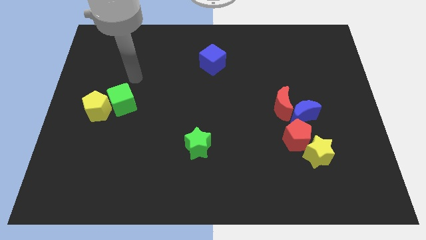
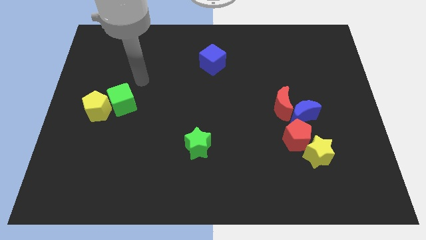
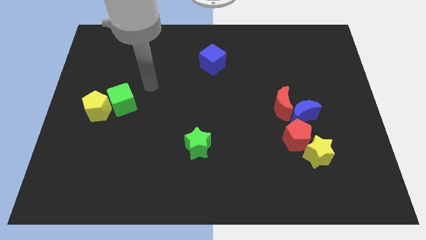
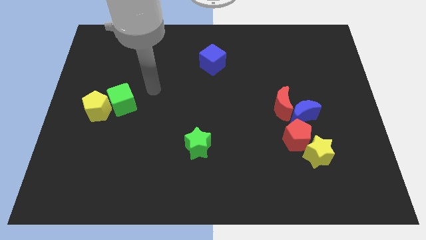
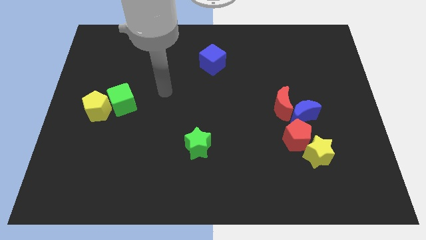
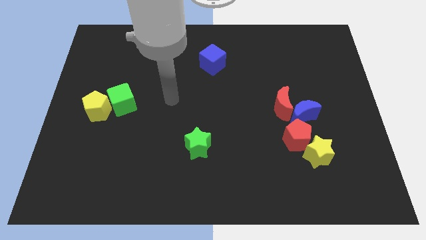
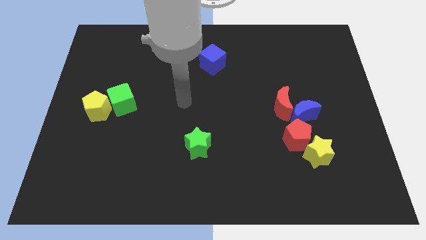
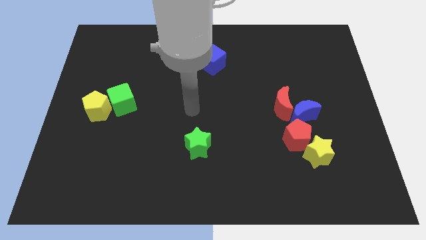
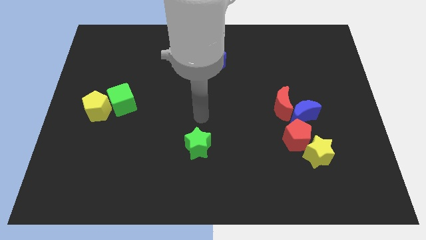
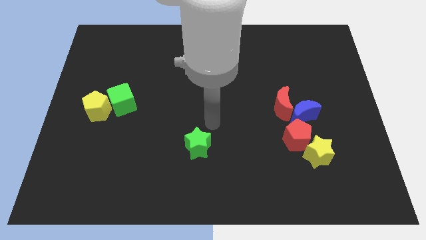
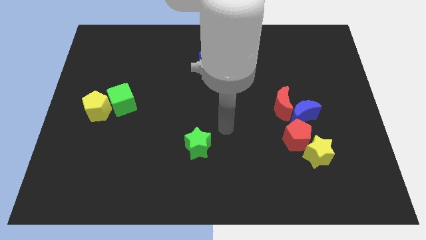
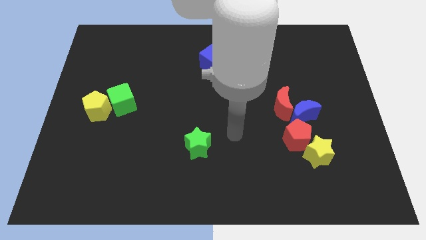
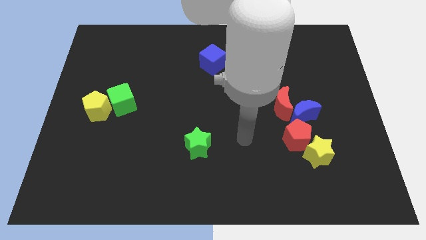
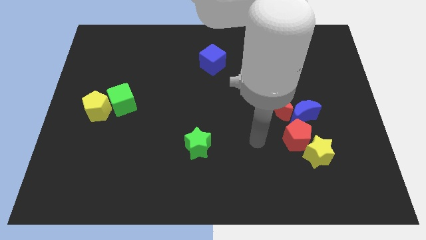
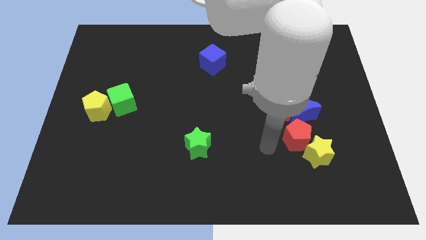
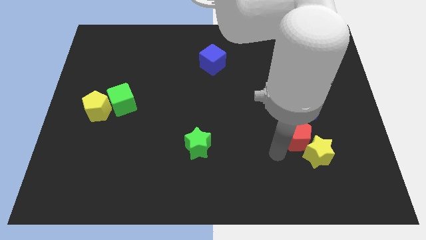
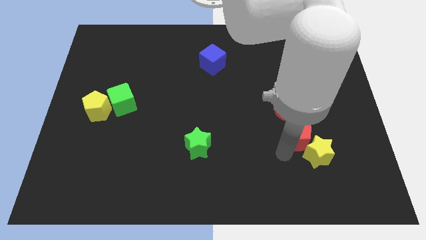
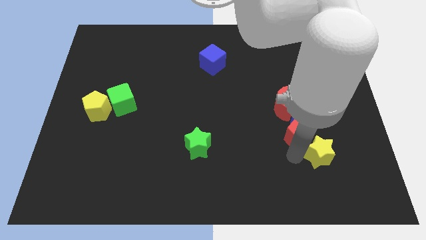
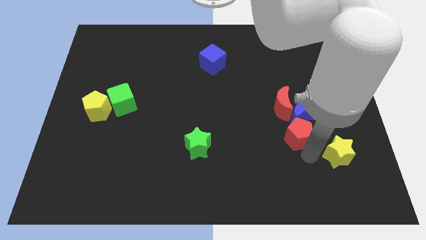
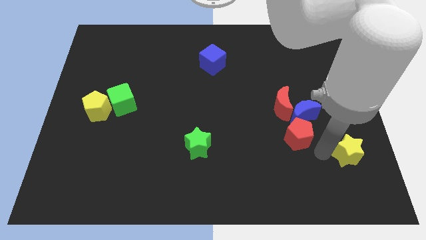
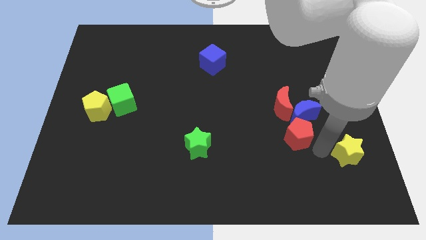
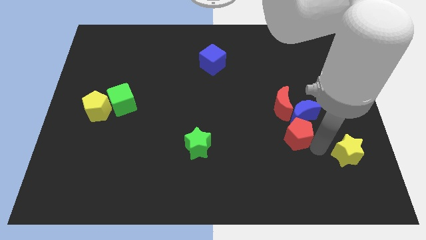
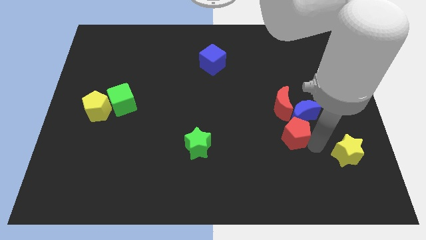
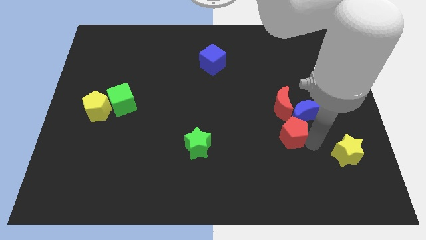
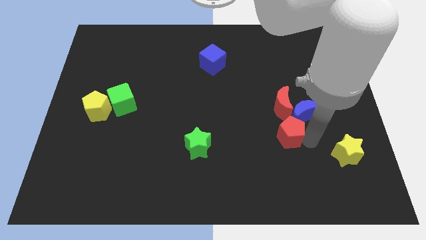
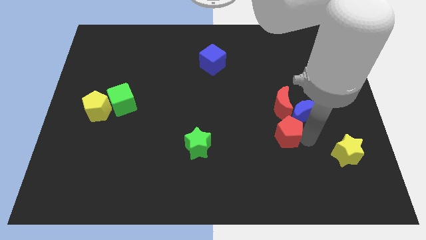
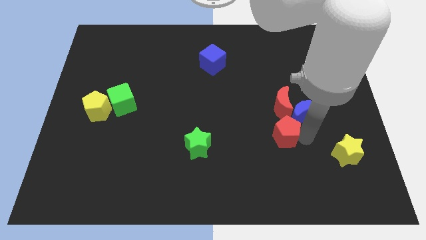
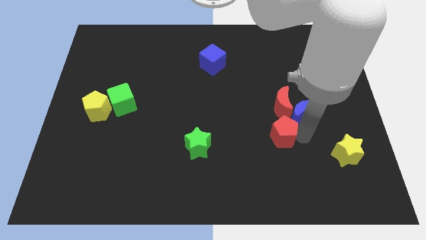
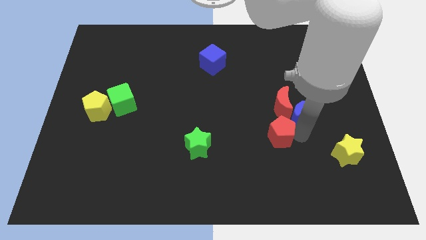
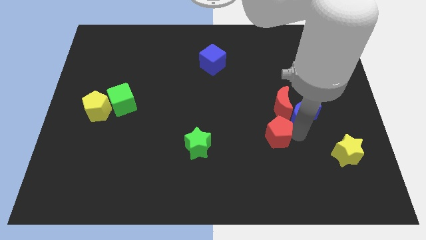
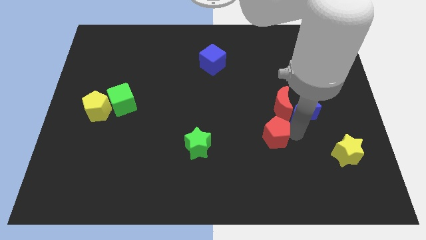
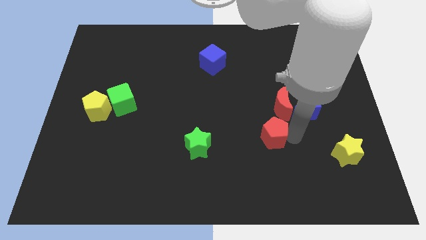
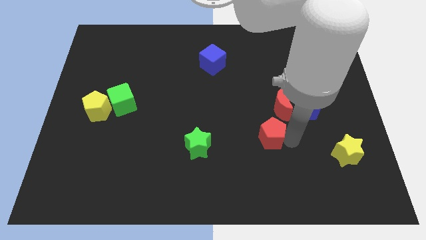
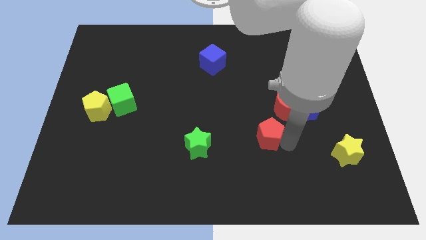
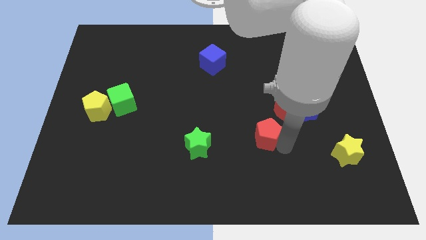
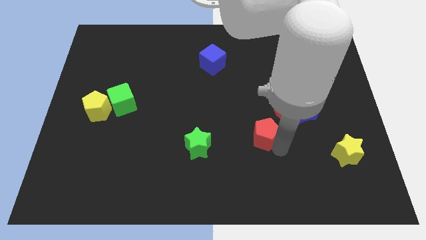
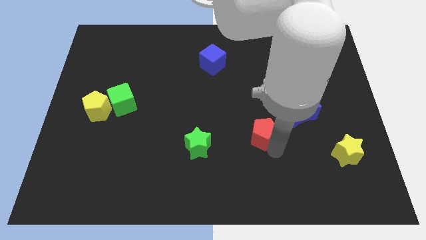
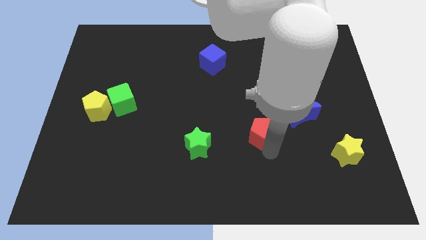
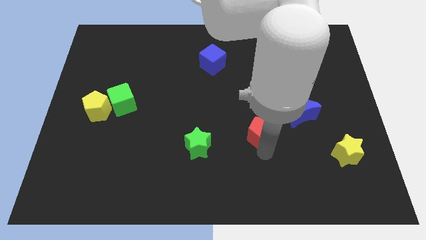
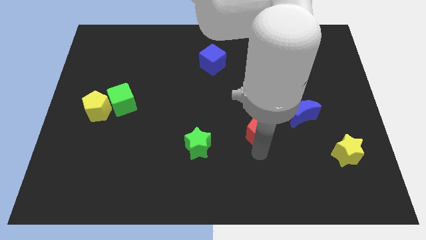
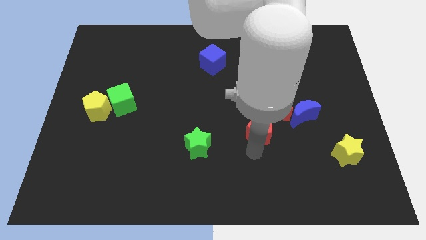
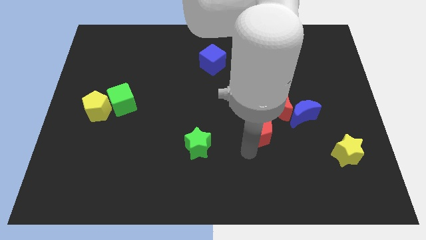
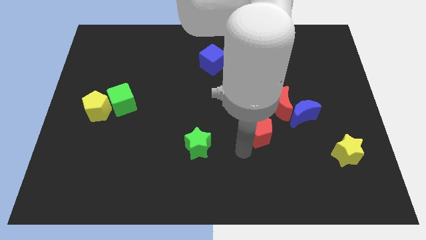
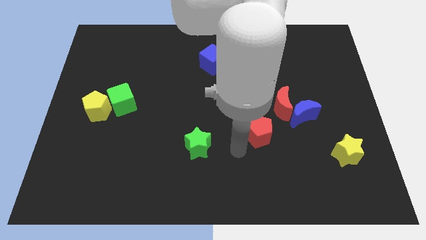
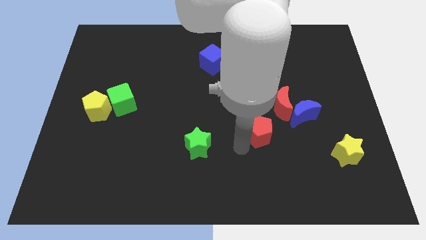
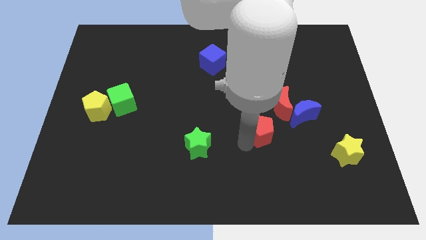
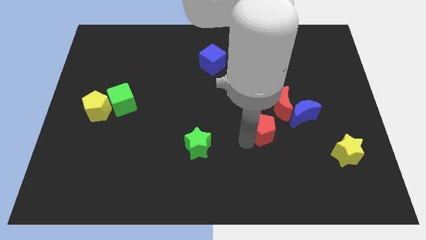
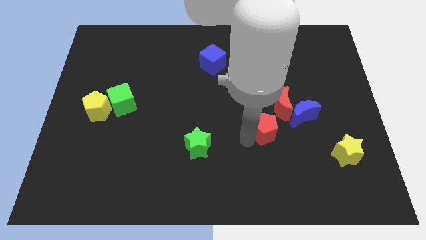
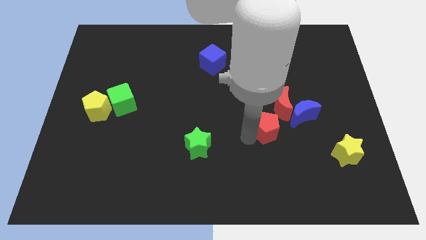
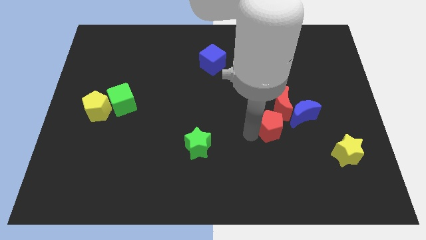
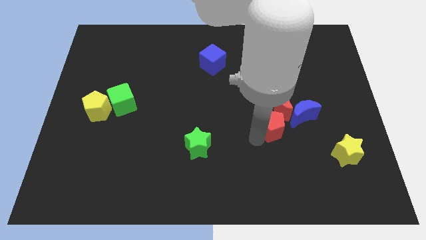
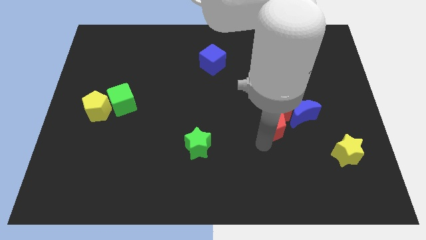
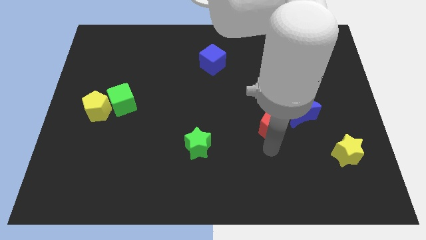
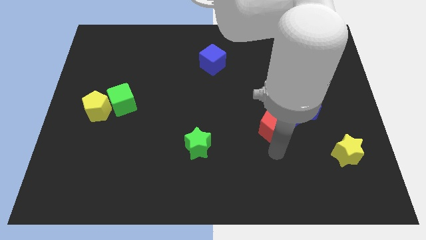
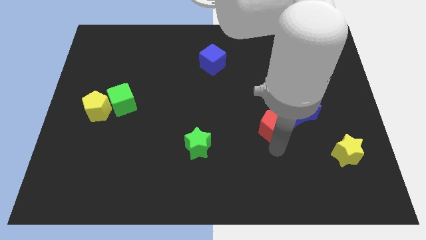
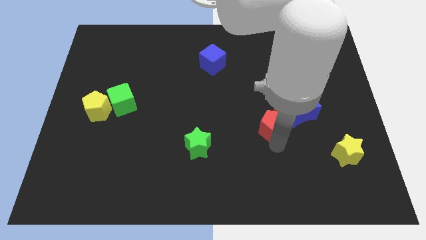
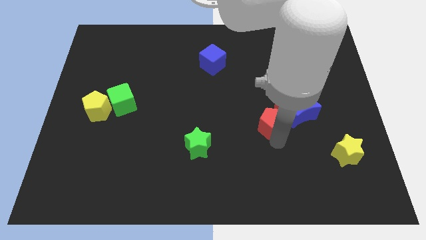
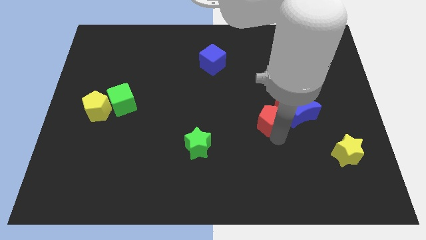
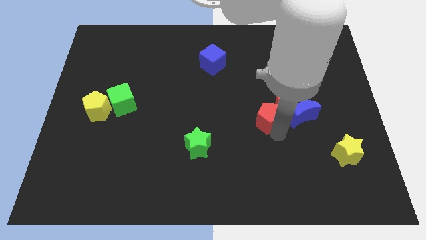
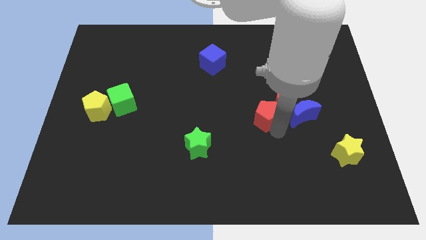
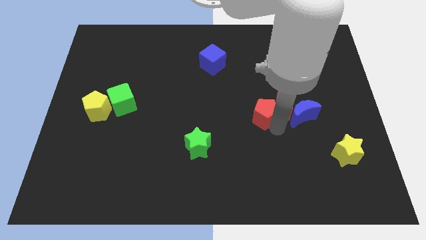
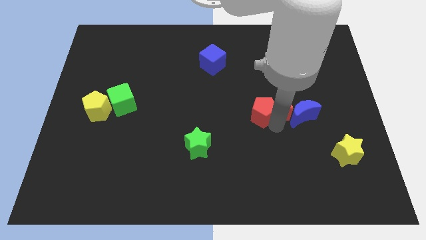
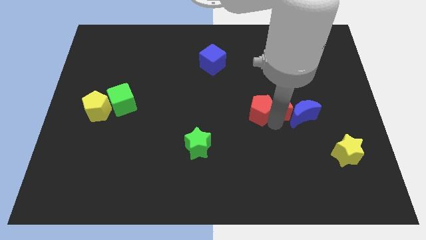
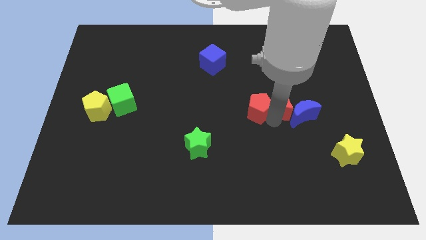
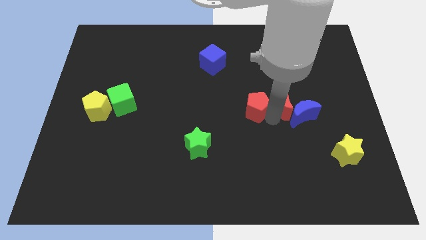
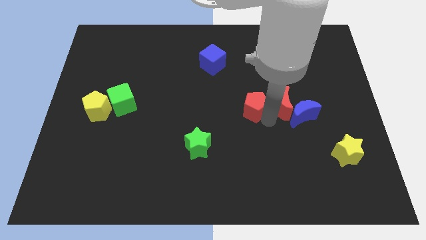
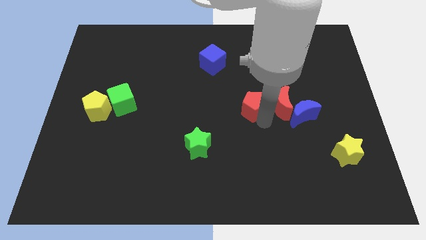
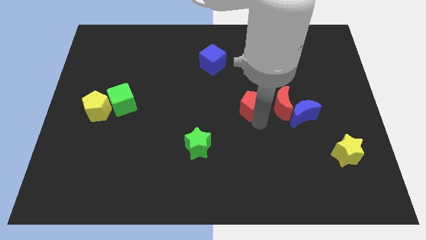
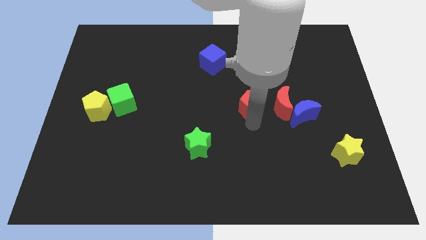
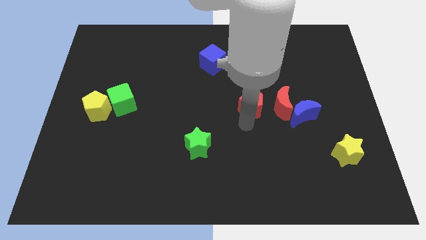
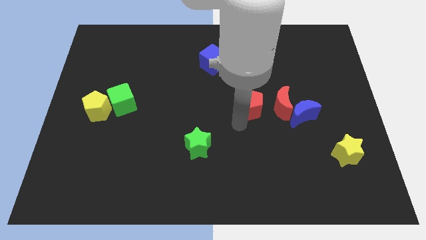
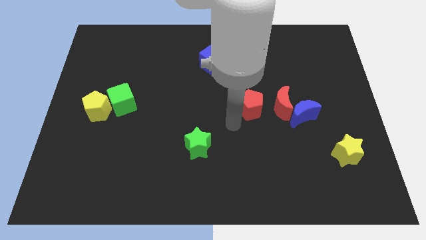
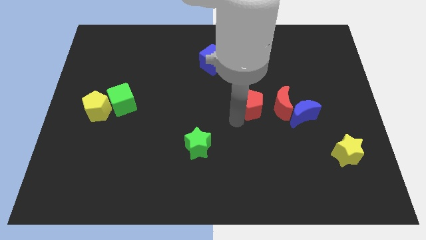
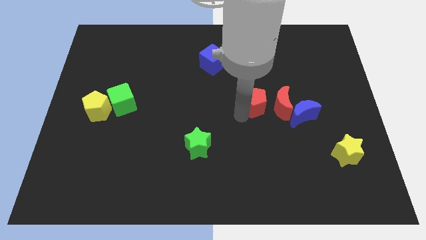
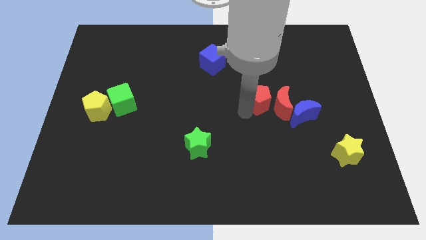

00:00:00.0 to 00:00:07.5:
put the red pentagon diagonally up and to the left of the blue moon
